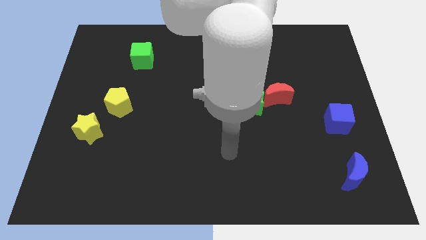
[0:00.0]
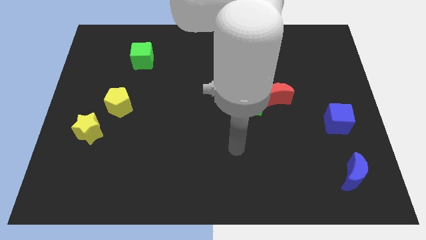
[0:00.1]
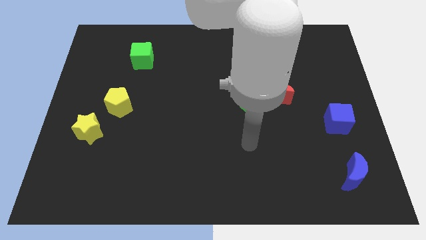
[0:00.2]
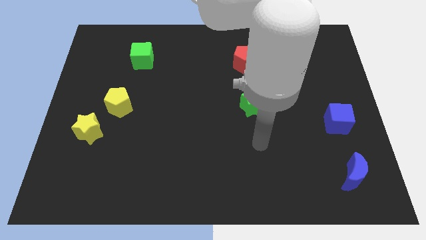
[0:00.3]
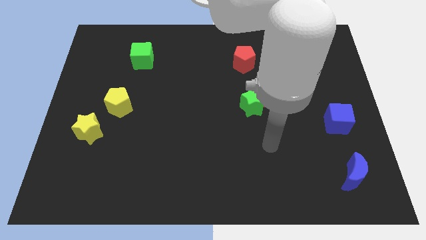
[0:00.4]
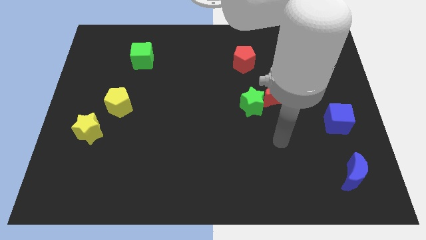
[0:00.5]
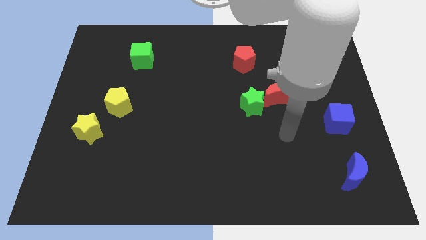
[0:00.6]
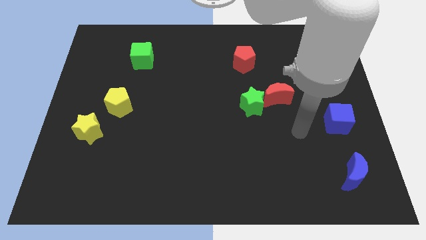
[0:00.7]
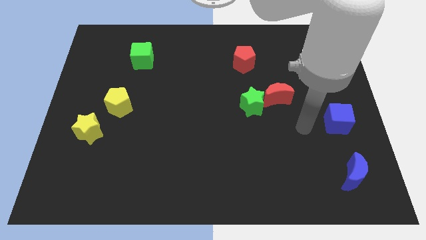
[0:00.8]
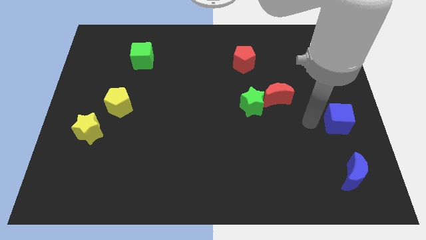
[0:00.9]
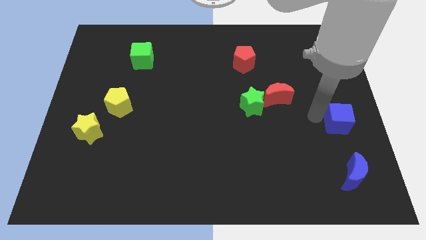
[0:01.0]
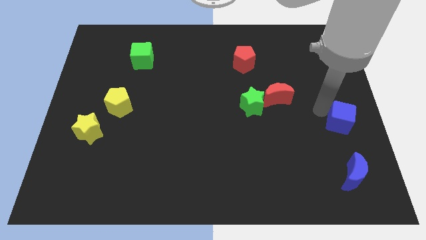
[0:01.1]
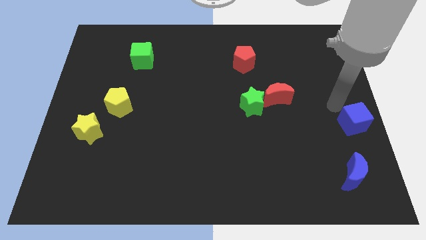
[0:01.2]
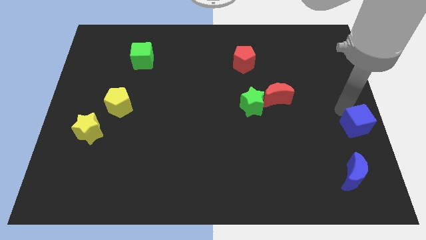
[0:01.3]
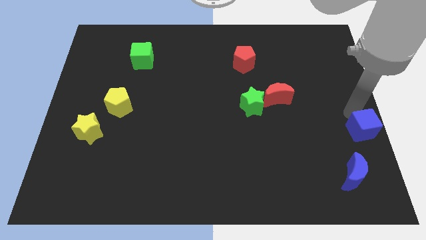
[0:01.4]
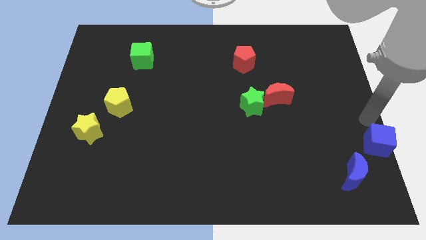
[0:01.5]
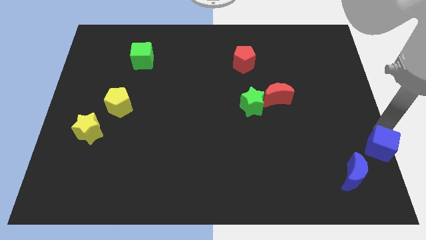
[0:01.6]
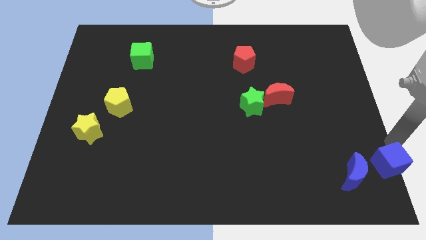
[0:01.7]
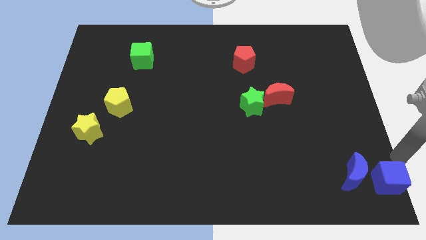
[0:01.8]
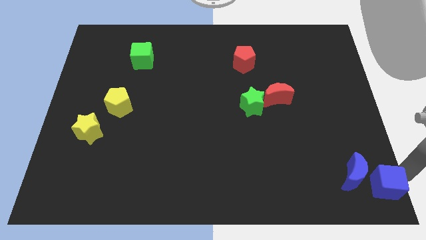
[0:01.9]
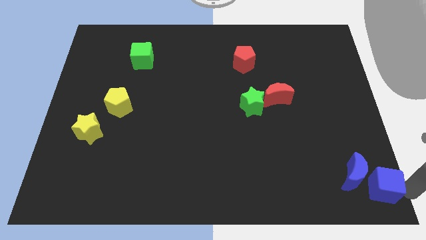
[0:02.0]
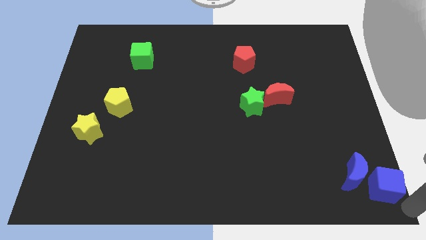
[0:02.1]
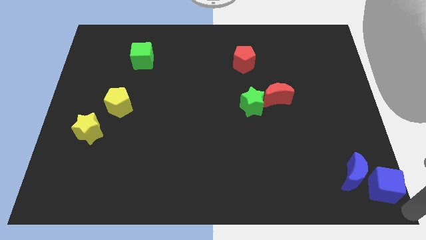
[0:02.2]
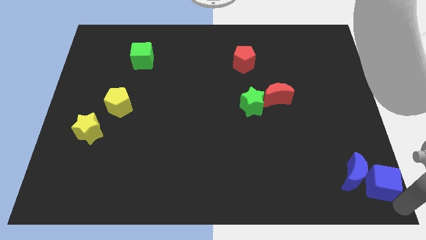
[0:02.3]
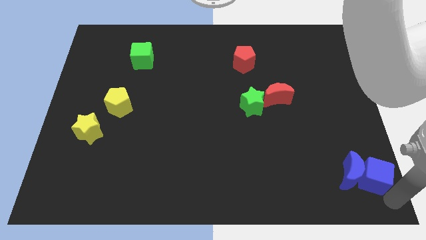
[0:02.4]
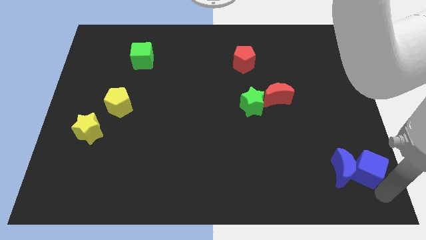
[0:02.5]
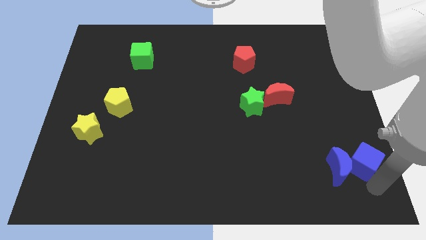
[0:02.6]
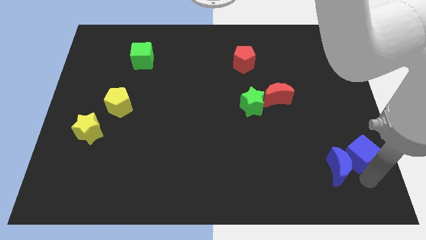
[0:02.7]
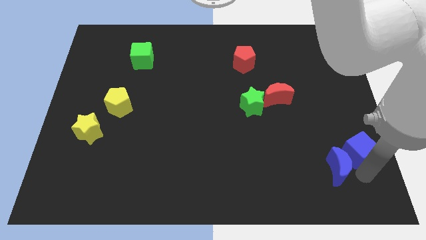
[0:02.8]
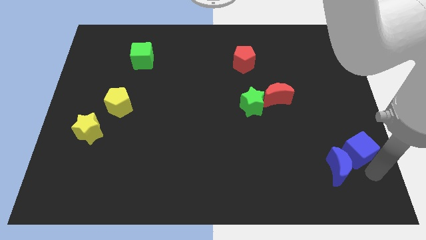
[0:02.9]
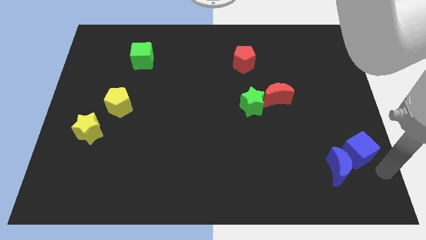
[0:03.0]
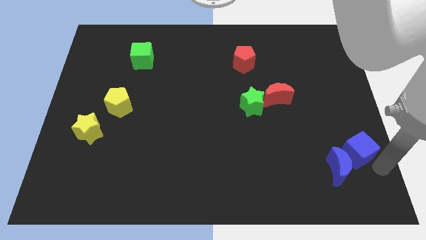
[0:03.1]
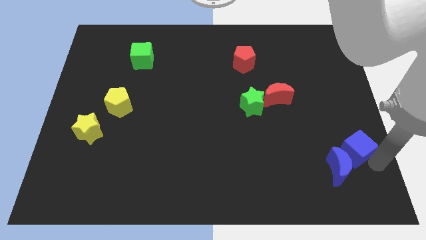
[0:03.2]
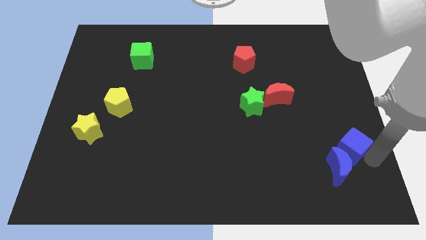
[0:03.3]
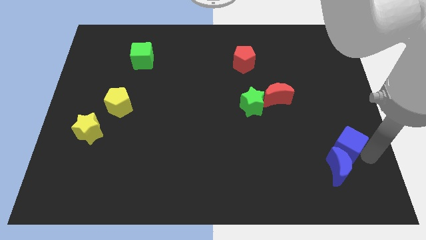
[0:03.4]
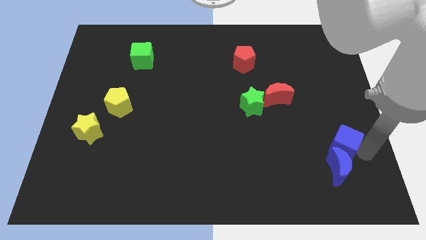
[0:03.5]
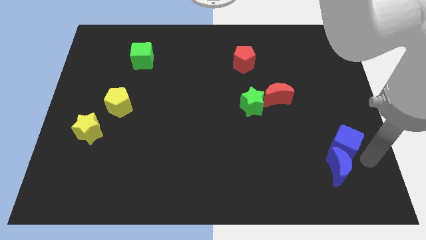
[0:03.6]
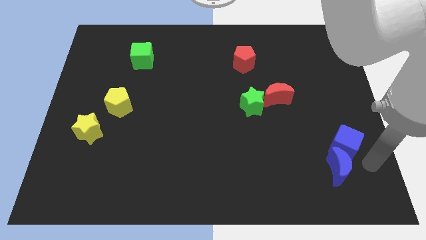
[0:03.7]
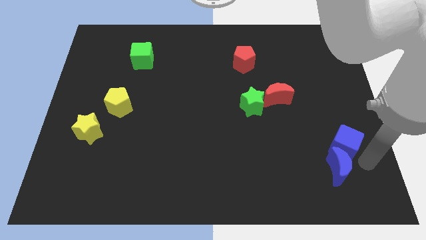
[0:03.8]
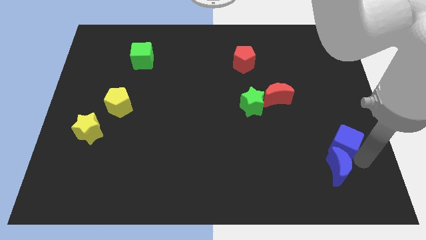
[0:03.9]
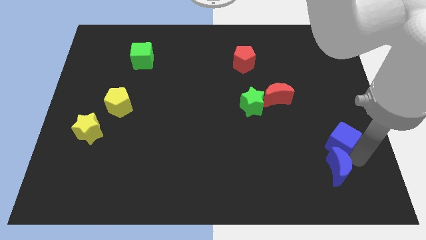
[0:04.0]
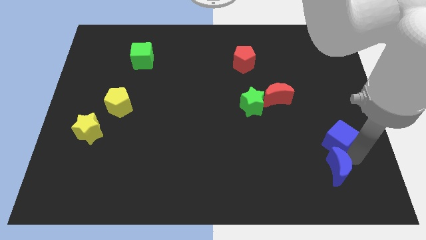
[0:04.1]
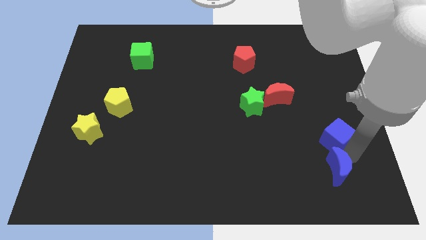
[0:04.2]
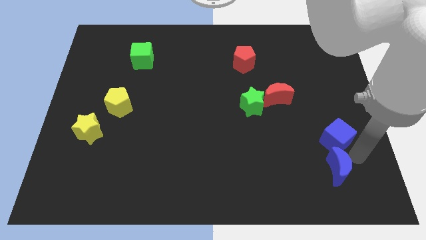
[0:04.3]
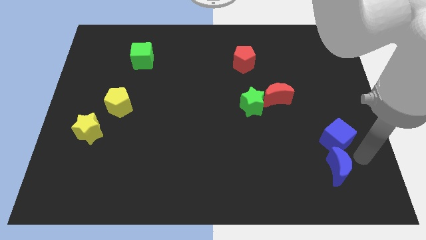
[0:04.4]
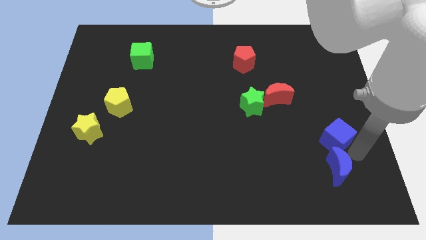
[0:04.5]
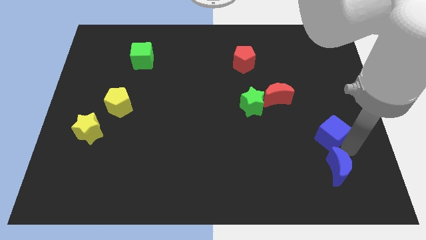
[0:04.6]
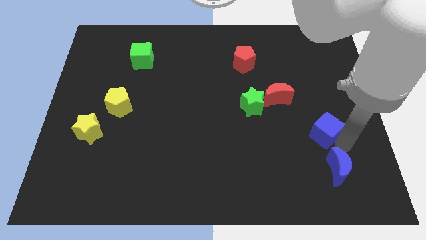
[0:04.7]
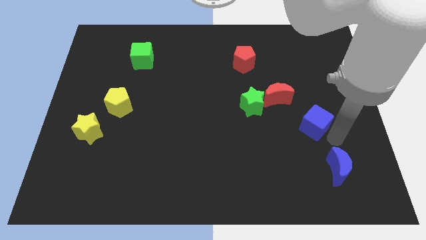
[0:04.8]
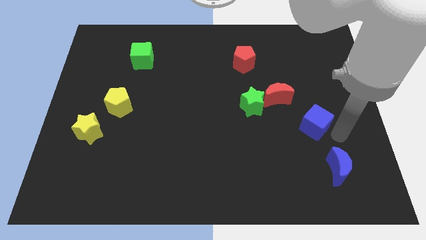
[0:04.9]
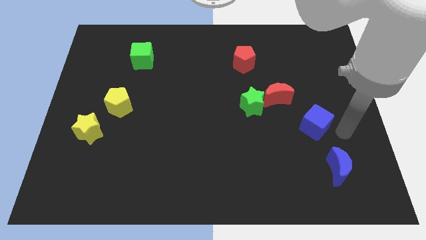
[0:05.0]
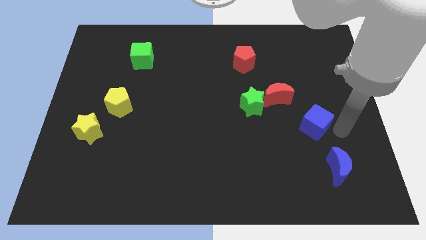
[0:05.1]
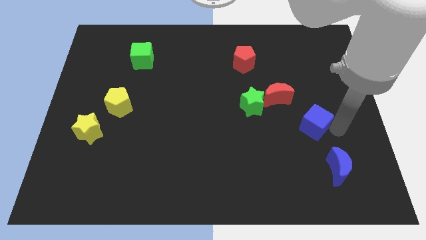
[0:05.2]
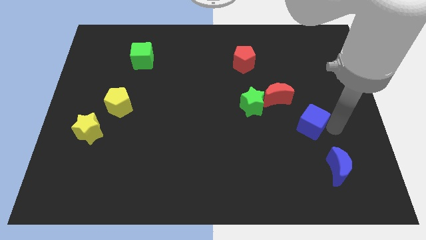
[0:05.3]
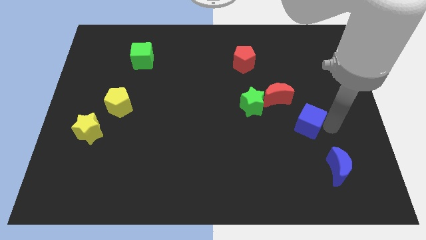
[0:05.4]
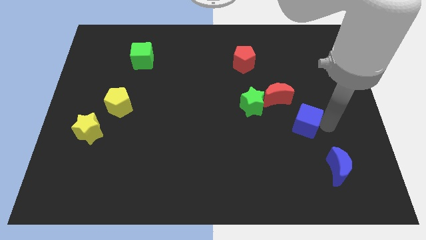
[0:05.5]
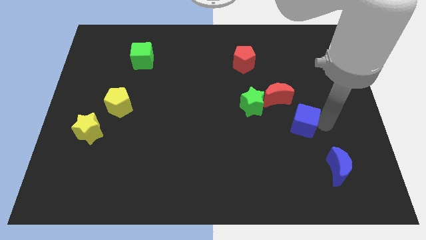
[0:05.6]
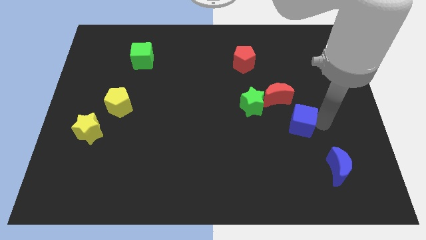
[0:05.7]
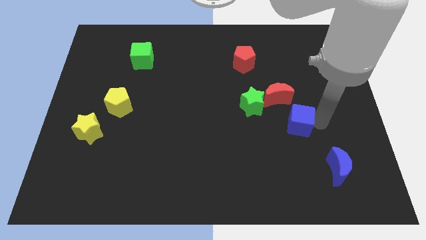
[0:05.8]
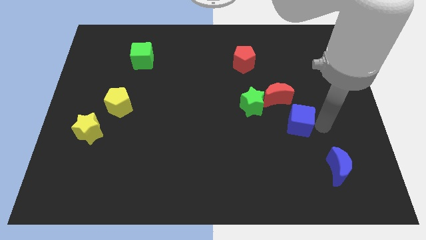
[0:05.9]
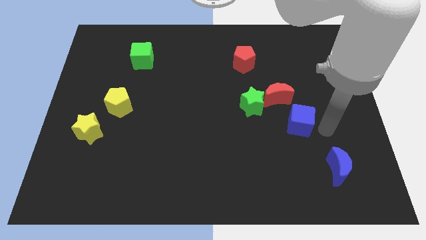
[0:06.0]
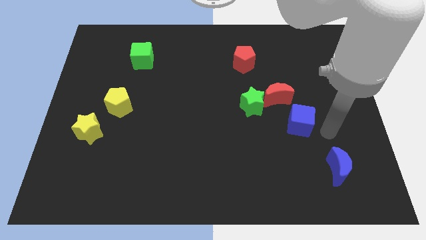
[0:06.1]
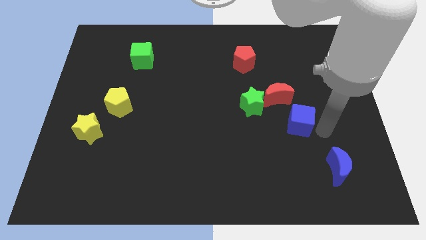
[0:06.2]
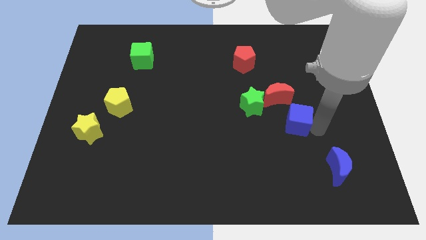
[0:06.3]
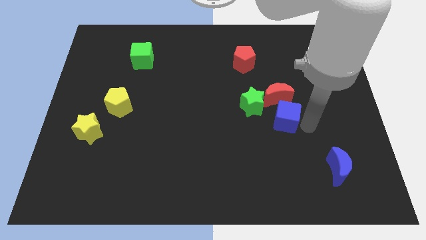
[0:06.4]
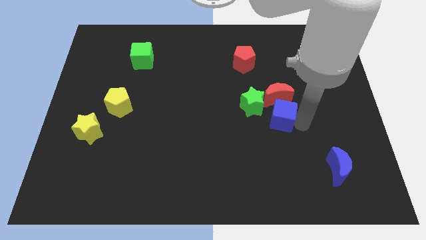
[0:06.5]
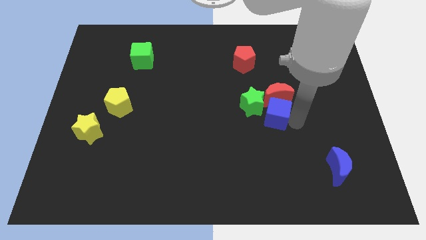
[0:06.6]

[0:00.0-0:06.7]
put the blue cube close to the green star
